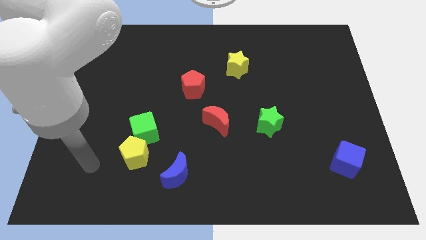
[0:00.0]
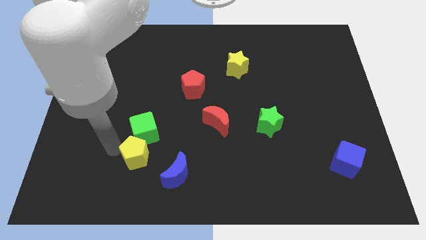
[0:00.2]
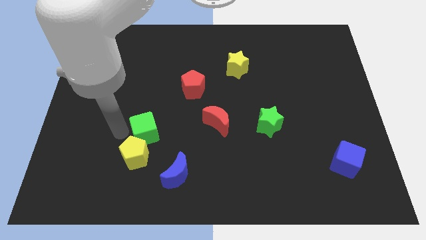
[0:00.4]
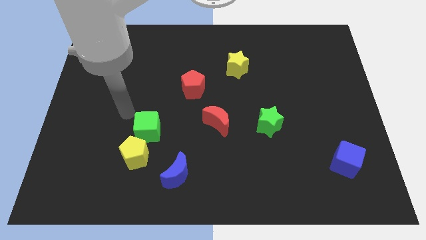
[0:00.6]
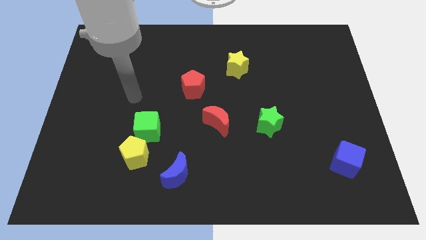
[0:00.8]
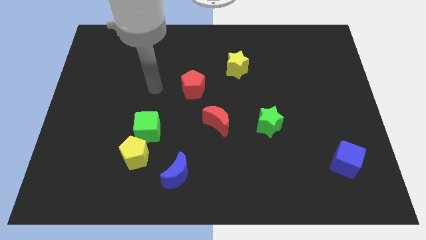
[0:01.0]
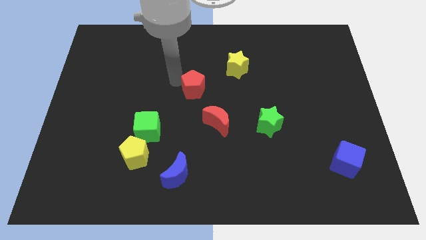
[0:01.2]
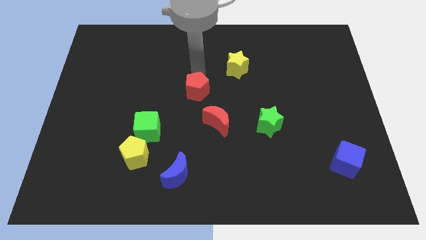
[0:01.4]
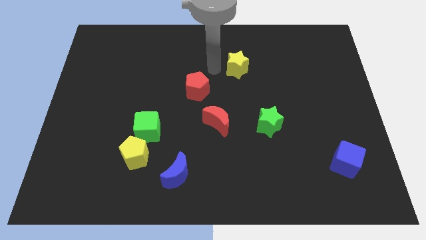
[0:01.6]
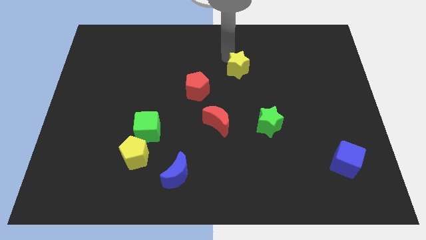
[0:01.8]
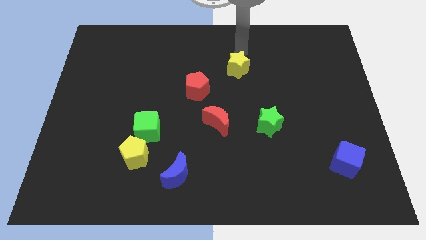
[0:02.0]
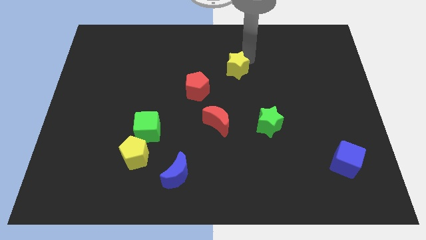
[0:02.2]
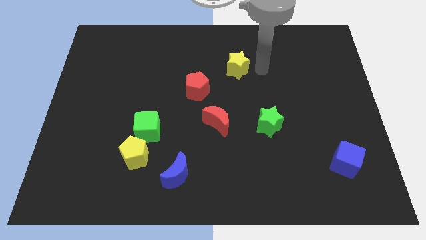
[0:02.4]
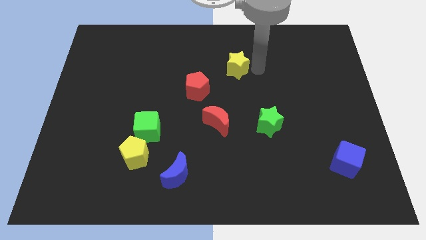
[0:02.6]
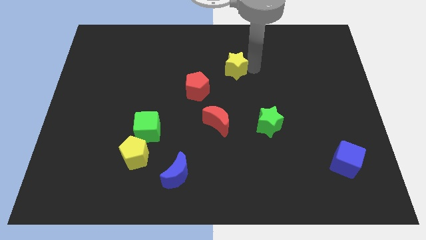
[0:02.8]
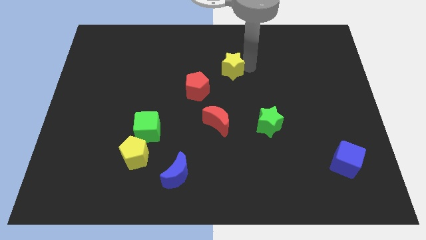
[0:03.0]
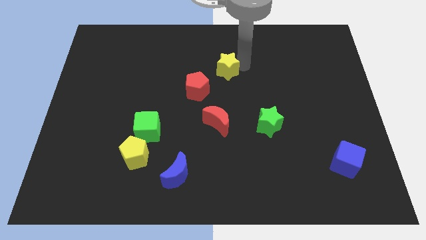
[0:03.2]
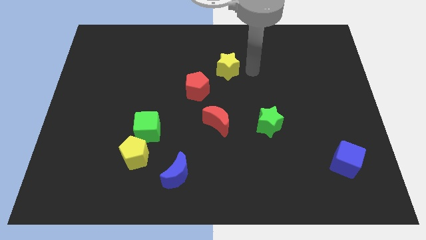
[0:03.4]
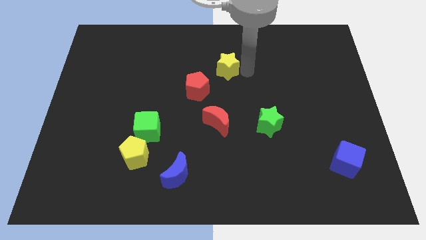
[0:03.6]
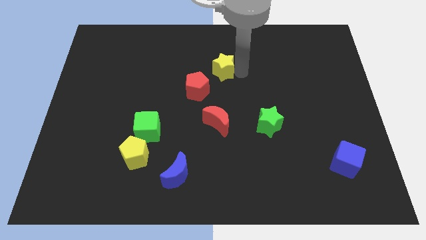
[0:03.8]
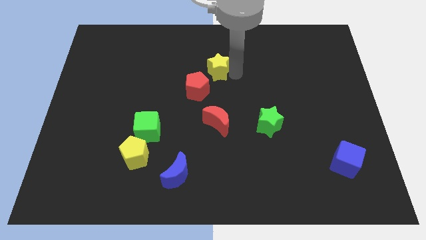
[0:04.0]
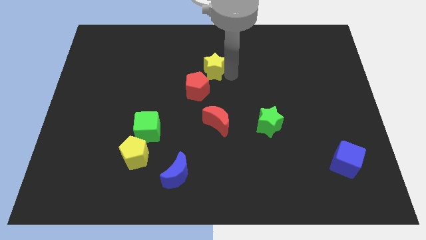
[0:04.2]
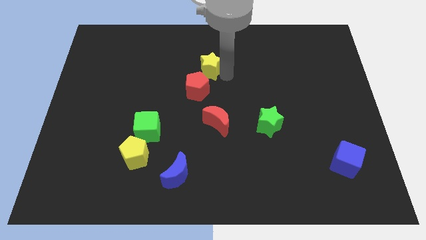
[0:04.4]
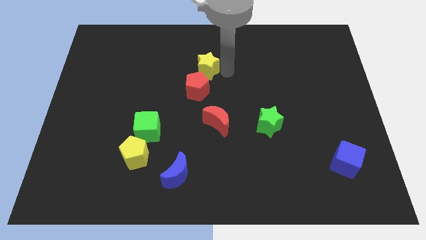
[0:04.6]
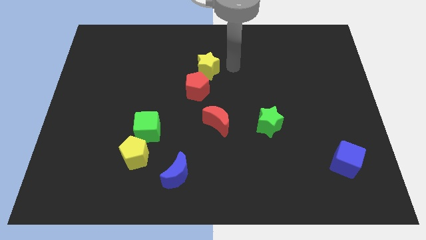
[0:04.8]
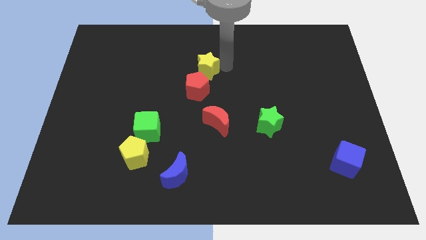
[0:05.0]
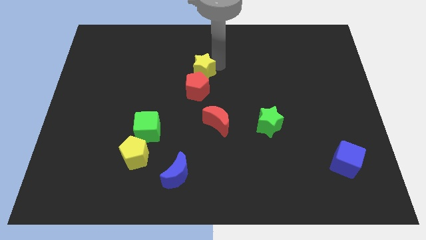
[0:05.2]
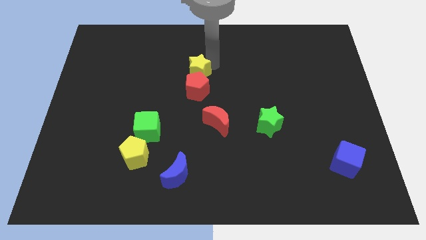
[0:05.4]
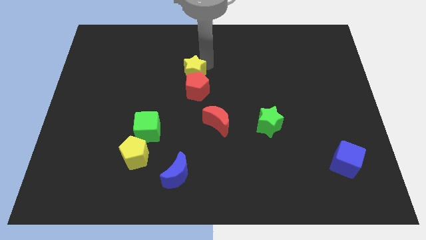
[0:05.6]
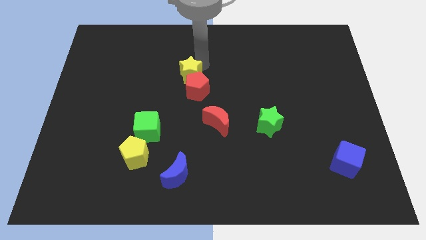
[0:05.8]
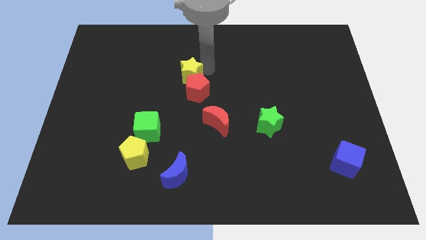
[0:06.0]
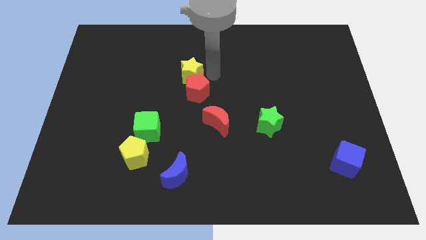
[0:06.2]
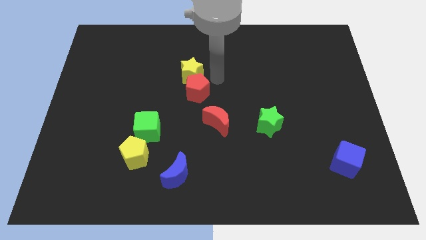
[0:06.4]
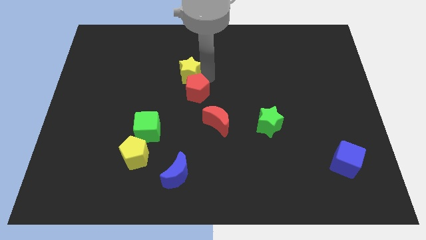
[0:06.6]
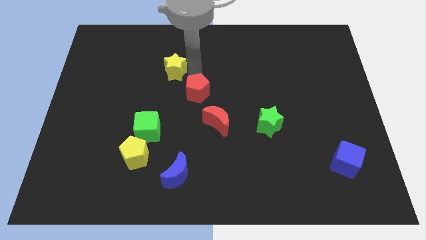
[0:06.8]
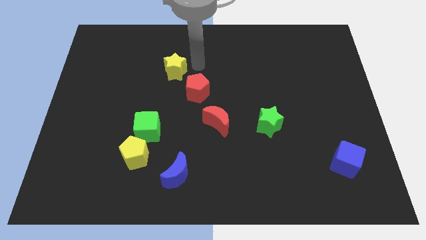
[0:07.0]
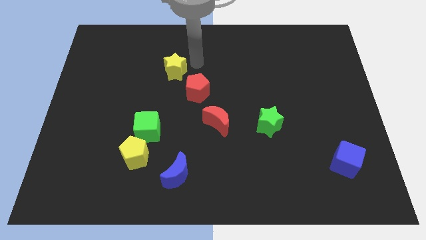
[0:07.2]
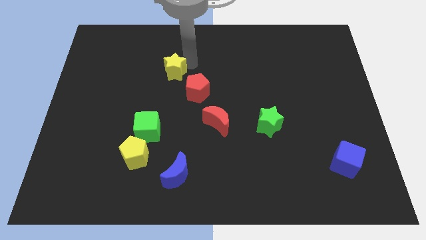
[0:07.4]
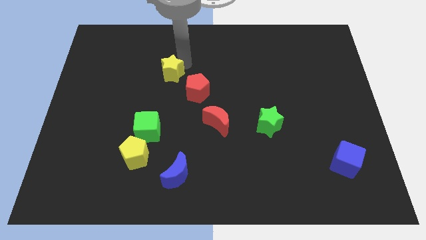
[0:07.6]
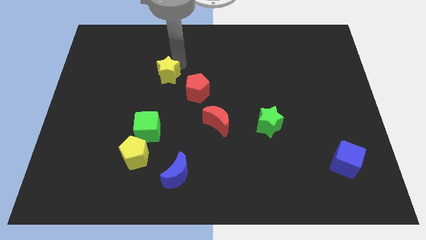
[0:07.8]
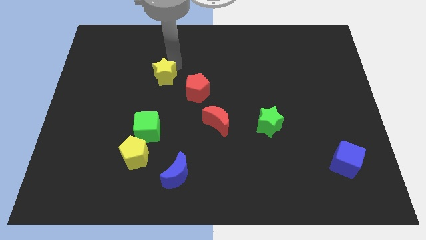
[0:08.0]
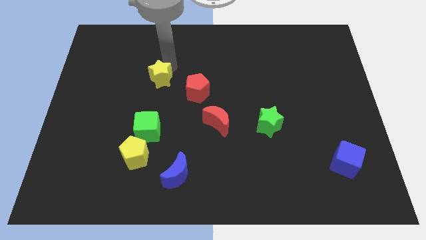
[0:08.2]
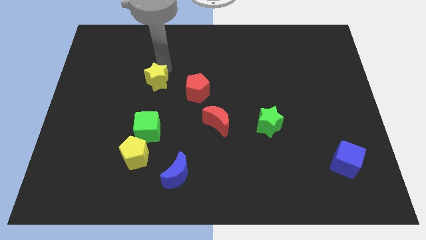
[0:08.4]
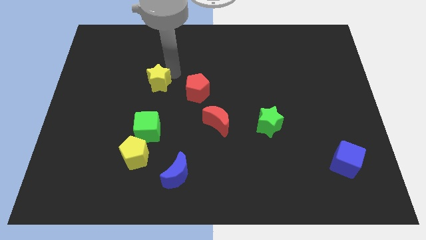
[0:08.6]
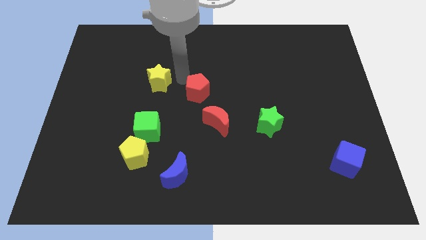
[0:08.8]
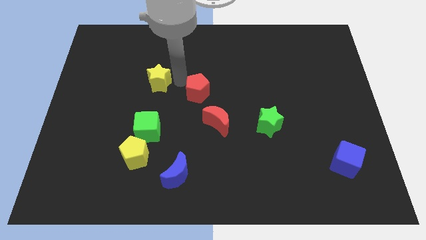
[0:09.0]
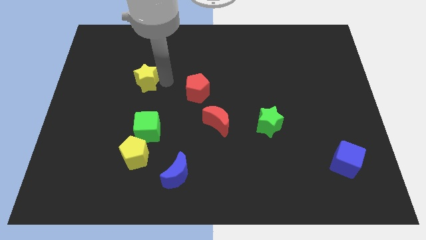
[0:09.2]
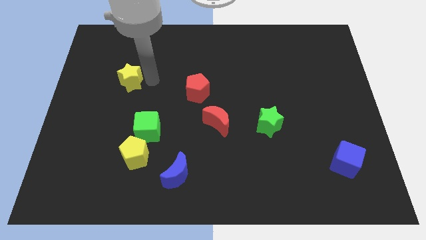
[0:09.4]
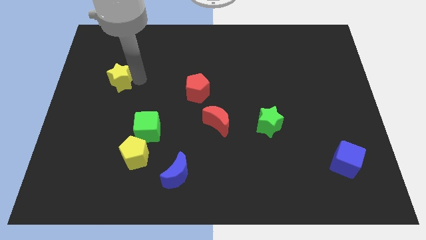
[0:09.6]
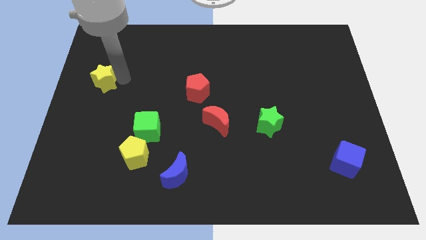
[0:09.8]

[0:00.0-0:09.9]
slide the yellow star to the left side

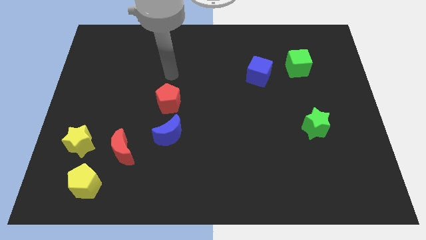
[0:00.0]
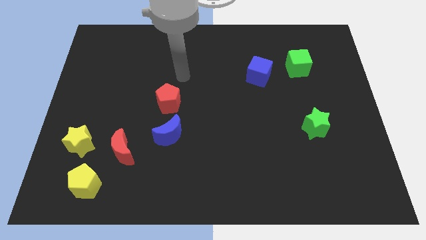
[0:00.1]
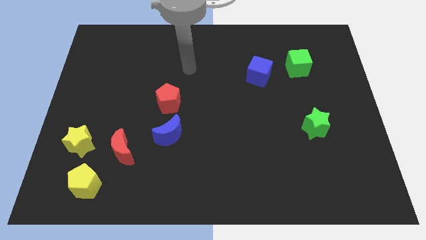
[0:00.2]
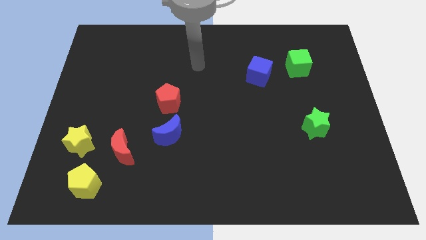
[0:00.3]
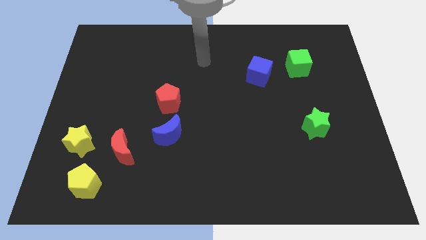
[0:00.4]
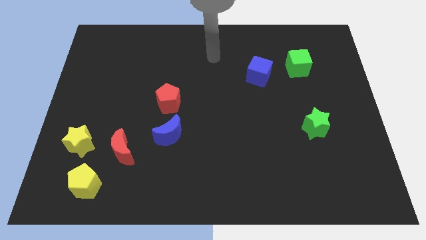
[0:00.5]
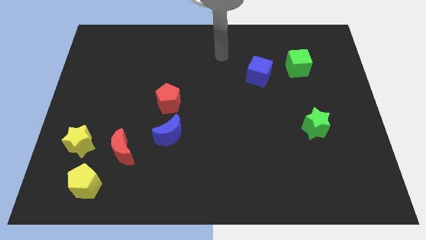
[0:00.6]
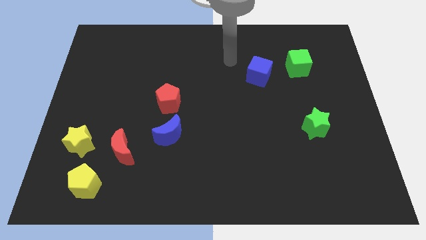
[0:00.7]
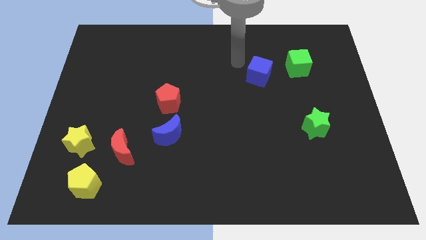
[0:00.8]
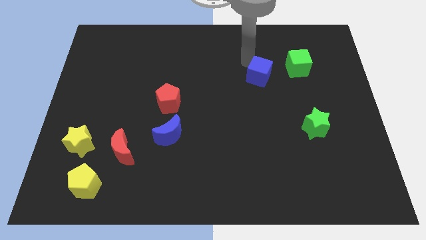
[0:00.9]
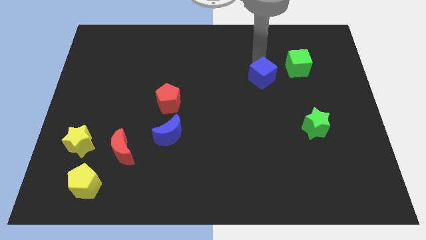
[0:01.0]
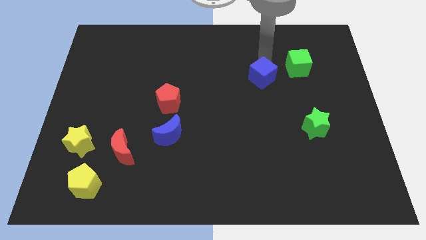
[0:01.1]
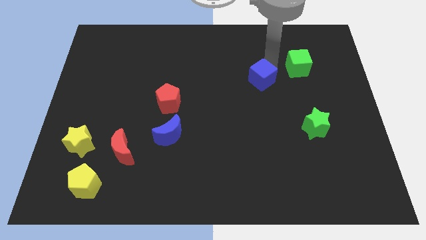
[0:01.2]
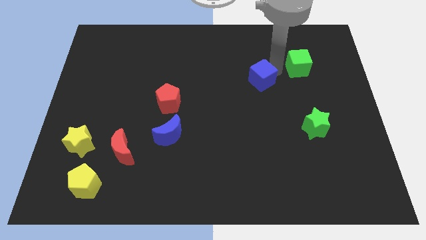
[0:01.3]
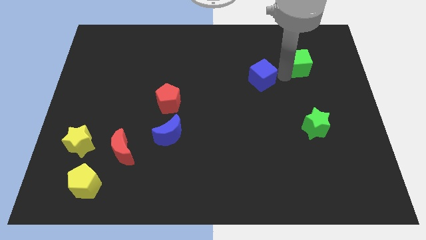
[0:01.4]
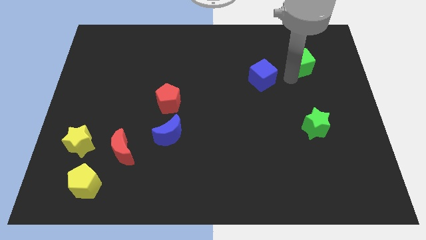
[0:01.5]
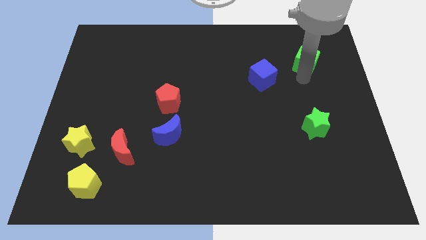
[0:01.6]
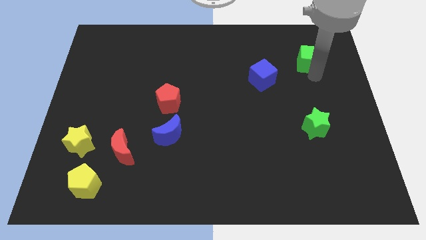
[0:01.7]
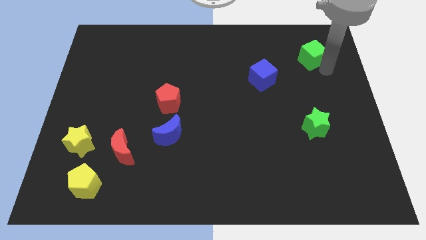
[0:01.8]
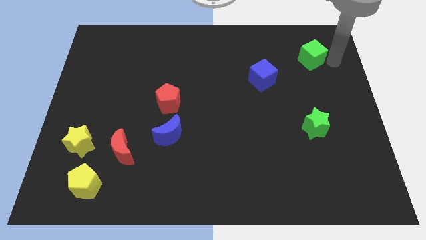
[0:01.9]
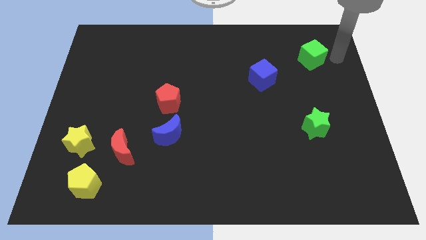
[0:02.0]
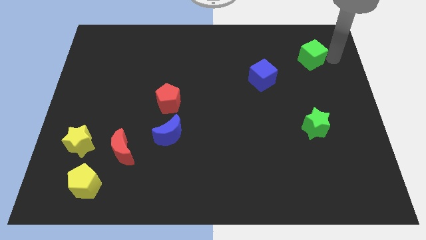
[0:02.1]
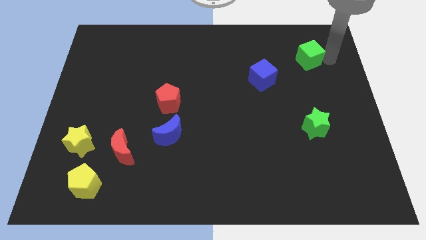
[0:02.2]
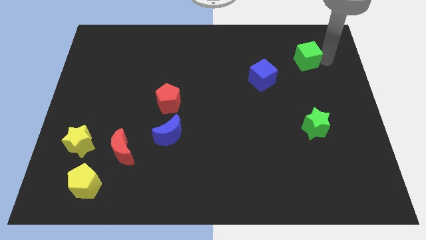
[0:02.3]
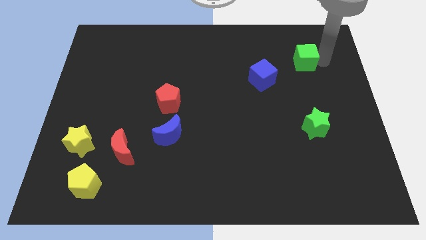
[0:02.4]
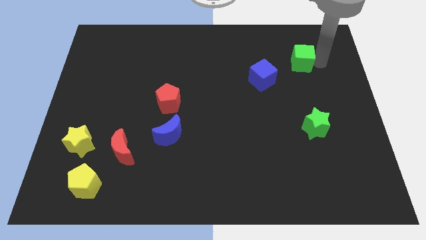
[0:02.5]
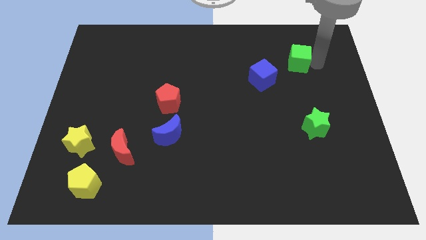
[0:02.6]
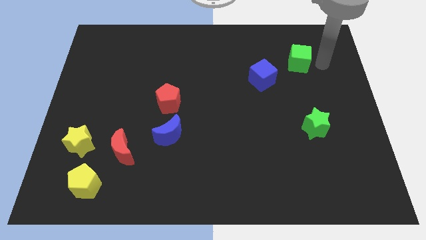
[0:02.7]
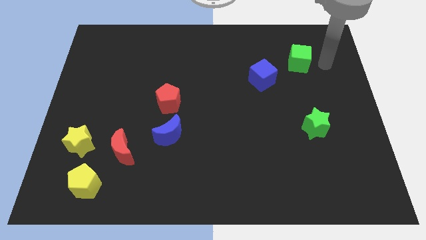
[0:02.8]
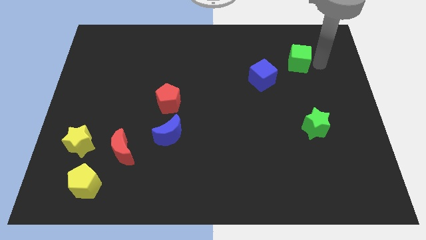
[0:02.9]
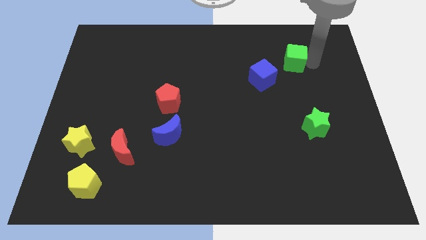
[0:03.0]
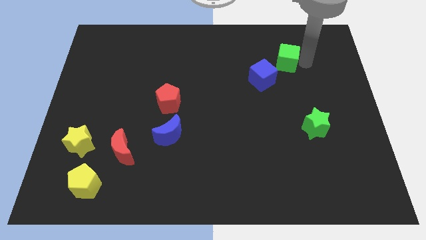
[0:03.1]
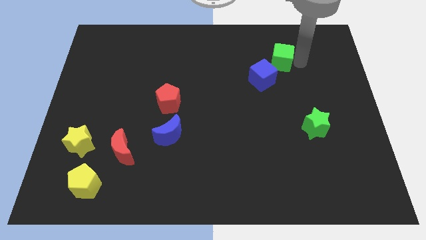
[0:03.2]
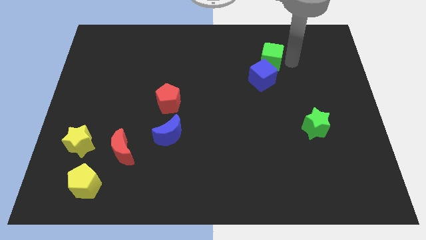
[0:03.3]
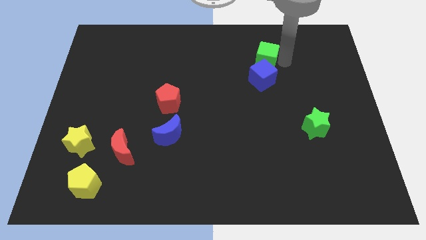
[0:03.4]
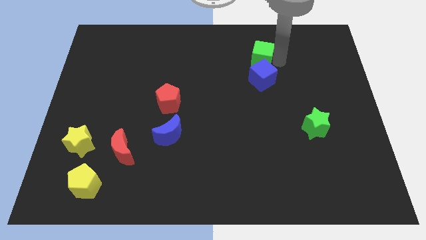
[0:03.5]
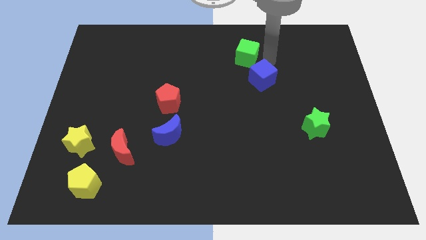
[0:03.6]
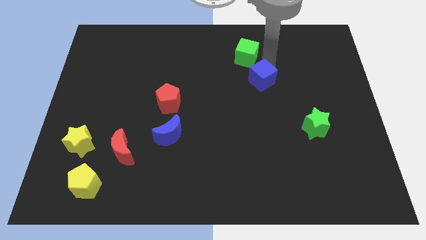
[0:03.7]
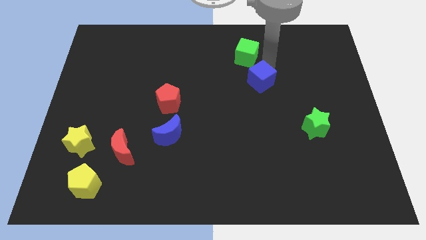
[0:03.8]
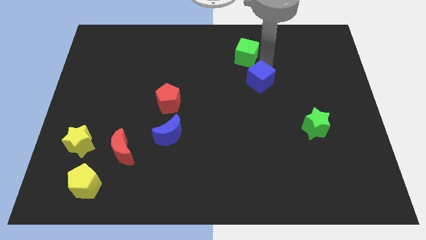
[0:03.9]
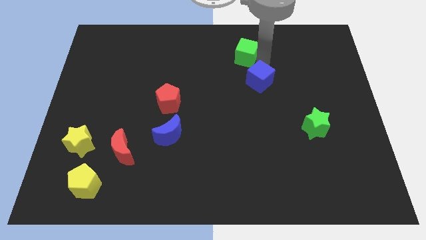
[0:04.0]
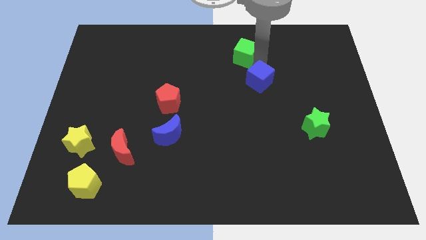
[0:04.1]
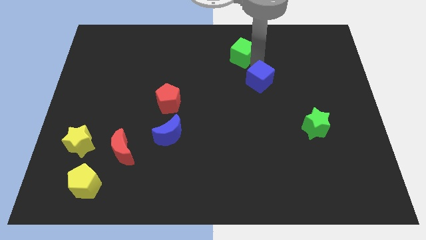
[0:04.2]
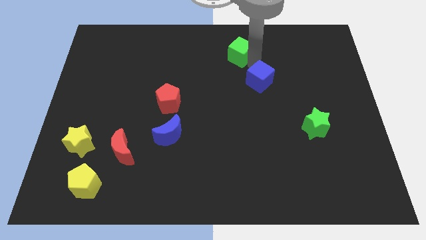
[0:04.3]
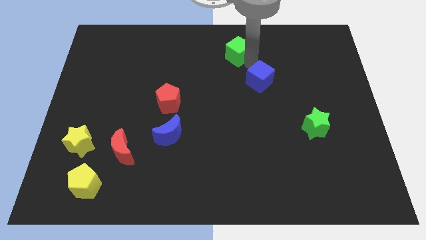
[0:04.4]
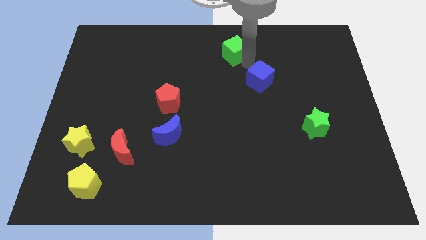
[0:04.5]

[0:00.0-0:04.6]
move the green cube to the top
